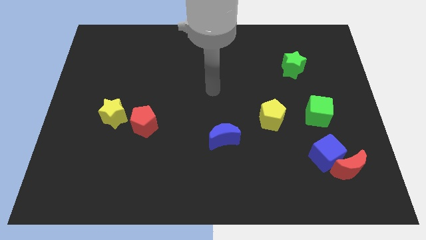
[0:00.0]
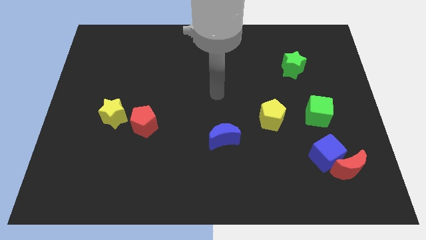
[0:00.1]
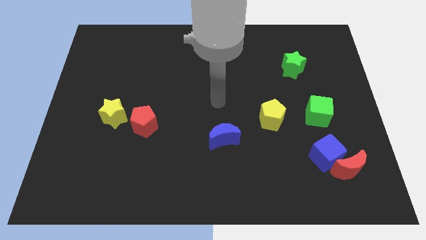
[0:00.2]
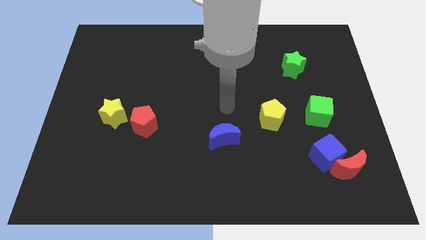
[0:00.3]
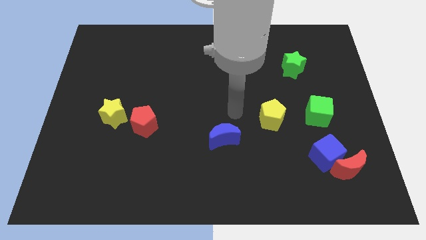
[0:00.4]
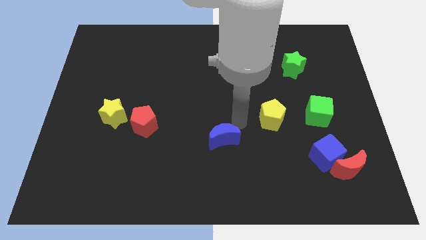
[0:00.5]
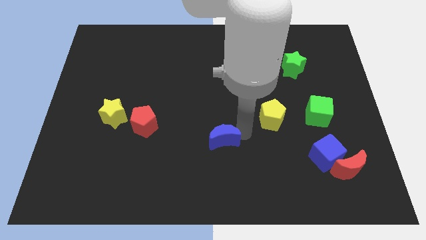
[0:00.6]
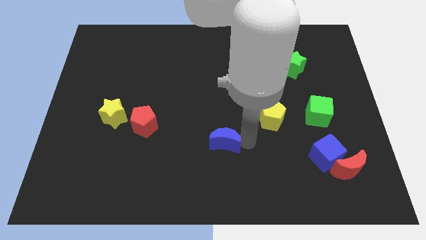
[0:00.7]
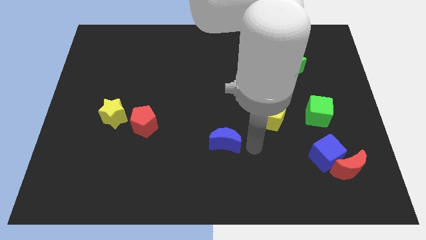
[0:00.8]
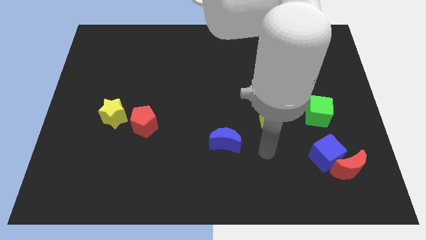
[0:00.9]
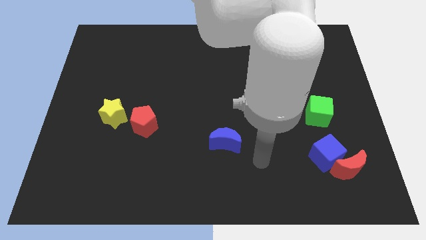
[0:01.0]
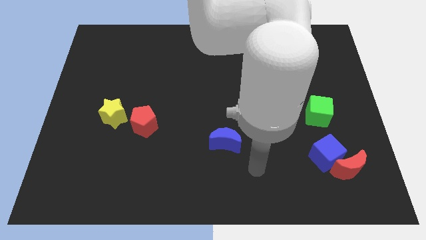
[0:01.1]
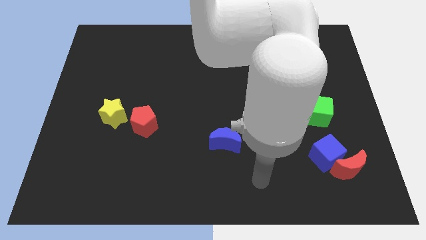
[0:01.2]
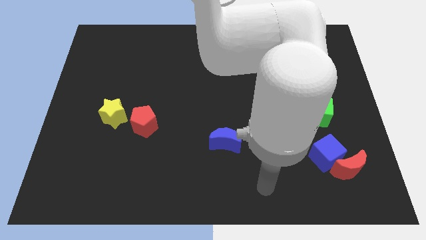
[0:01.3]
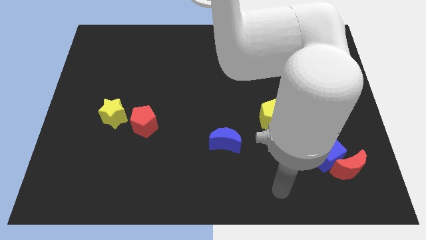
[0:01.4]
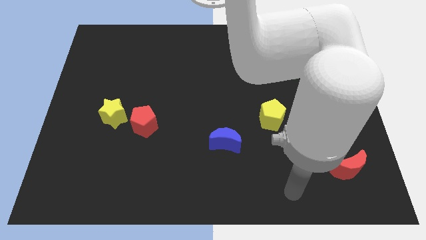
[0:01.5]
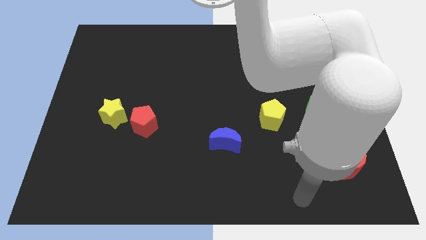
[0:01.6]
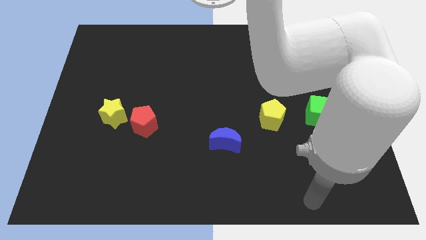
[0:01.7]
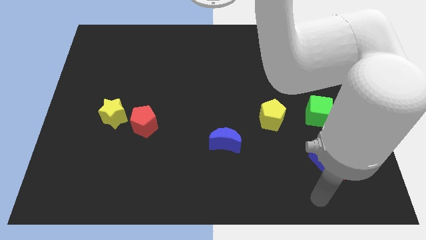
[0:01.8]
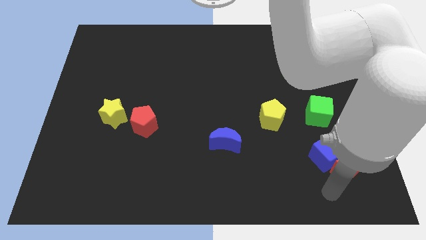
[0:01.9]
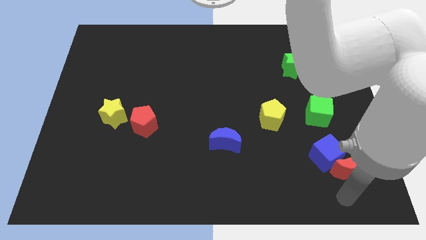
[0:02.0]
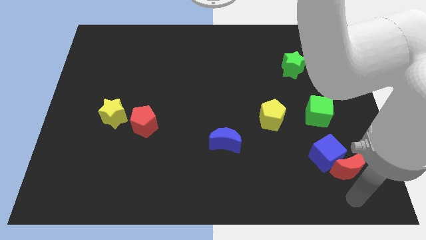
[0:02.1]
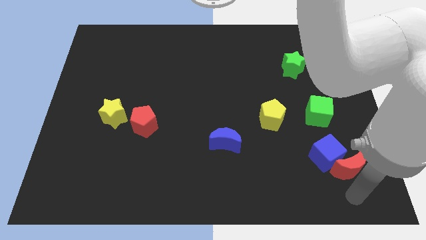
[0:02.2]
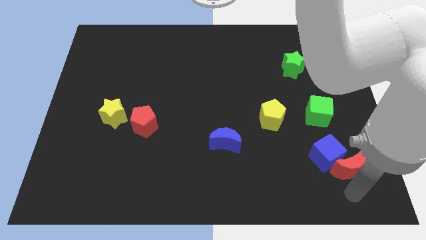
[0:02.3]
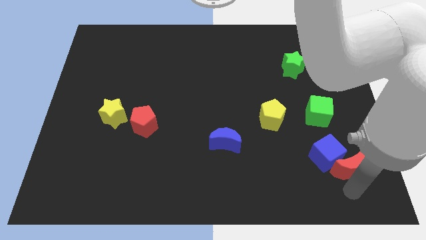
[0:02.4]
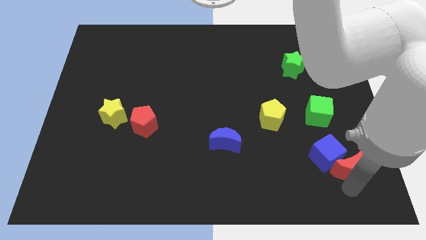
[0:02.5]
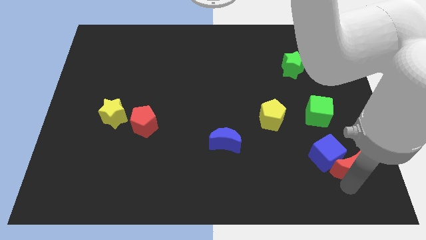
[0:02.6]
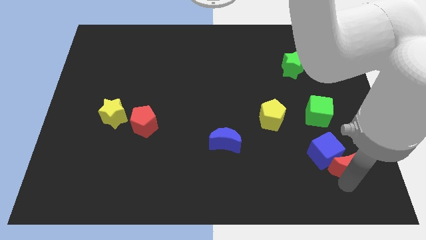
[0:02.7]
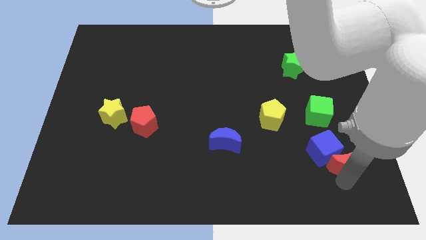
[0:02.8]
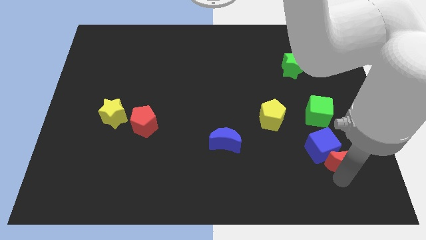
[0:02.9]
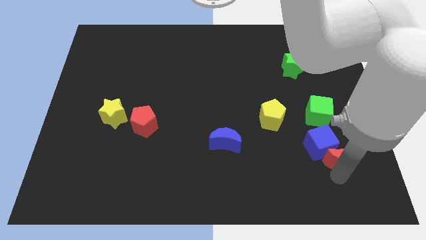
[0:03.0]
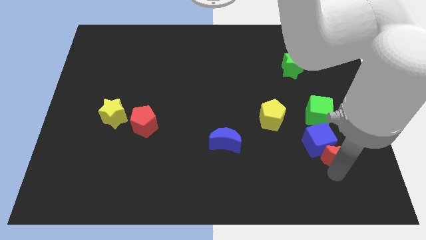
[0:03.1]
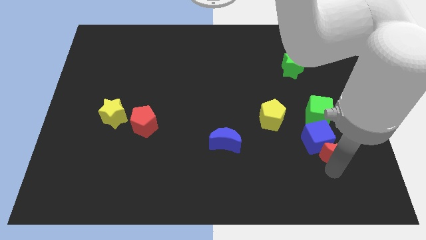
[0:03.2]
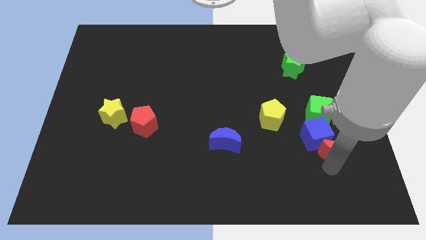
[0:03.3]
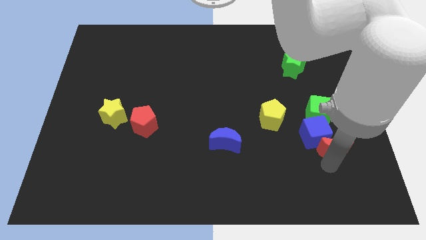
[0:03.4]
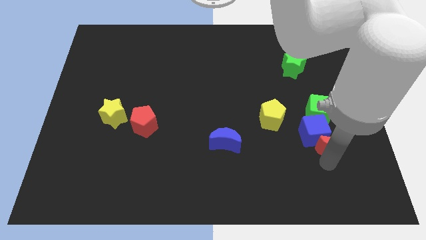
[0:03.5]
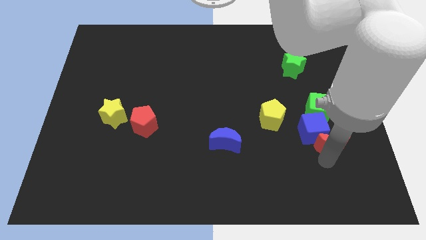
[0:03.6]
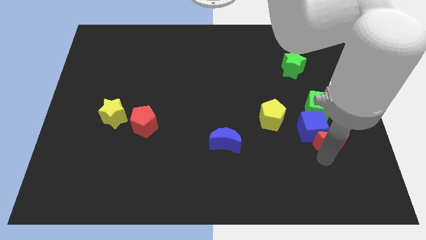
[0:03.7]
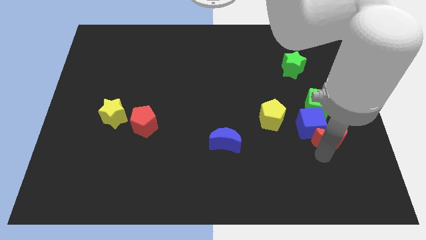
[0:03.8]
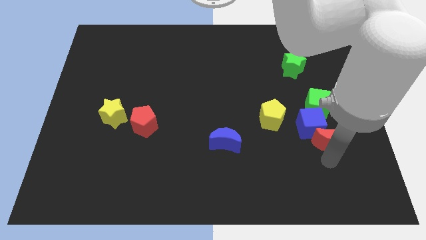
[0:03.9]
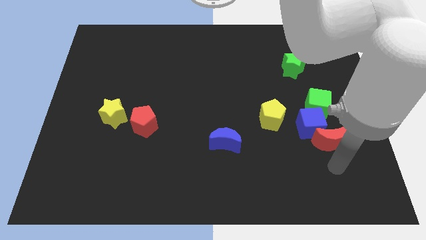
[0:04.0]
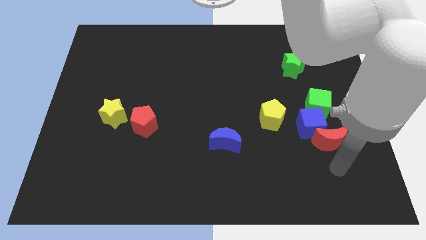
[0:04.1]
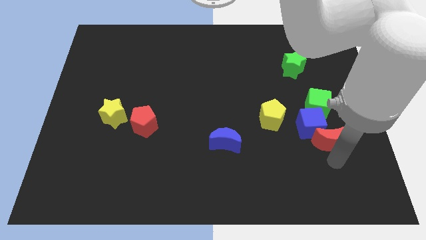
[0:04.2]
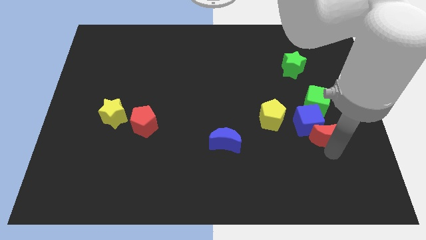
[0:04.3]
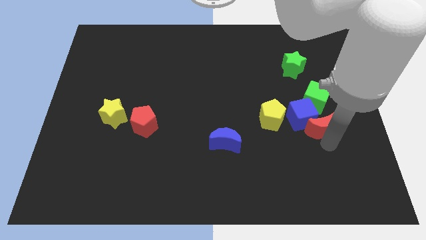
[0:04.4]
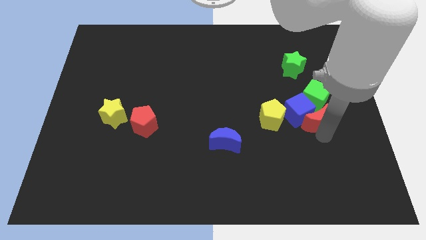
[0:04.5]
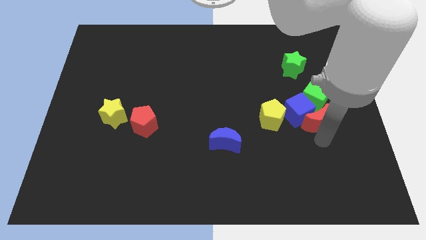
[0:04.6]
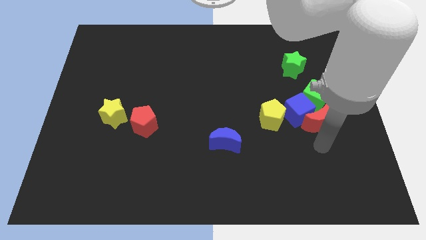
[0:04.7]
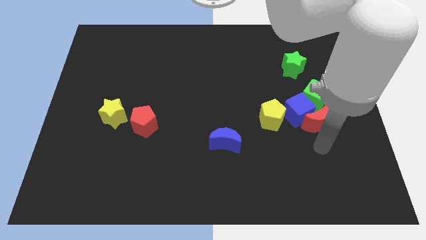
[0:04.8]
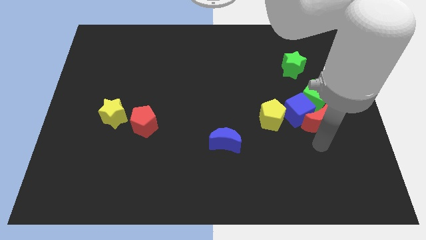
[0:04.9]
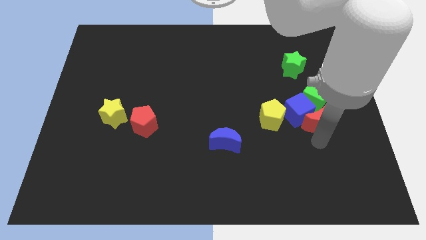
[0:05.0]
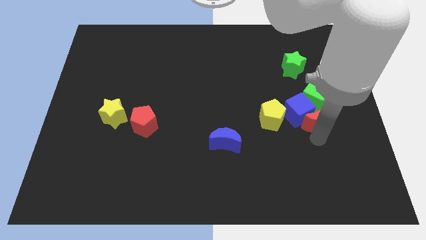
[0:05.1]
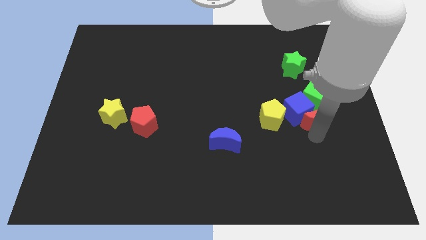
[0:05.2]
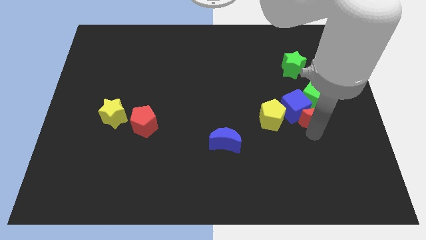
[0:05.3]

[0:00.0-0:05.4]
push the red moon close to the green cube

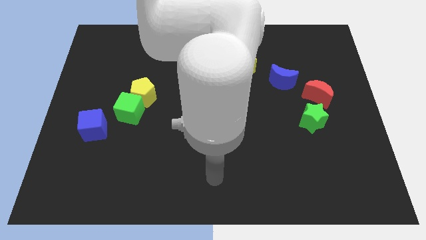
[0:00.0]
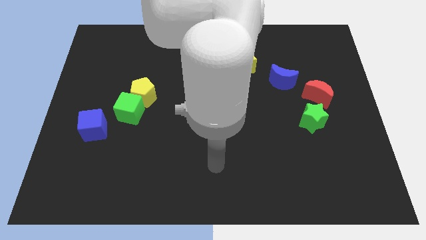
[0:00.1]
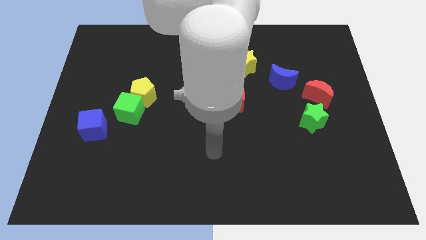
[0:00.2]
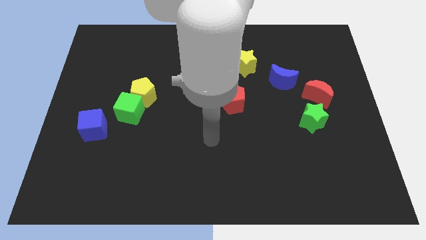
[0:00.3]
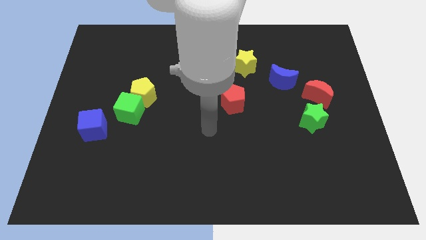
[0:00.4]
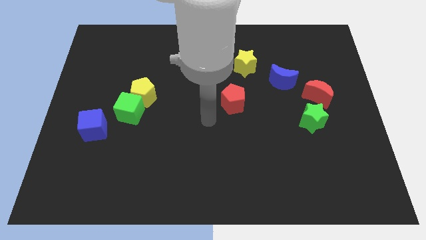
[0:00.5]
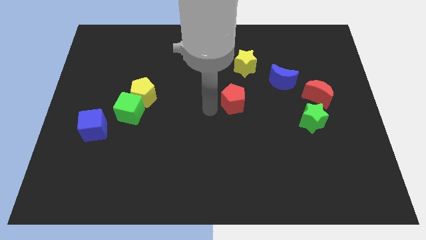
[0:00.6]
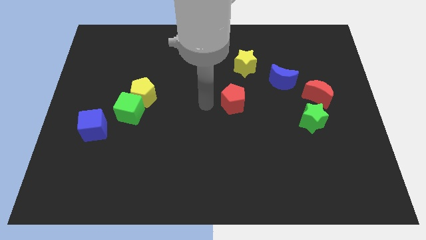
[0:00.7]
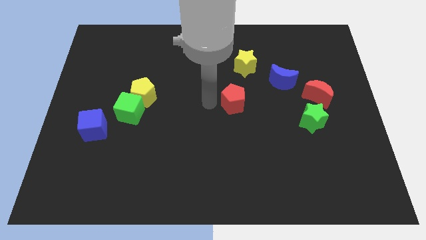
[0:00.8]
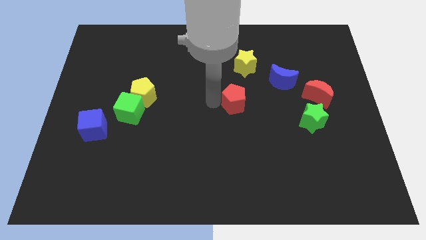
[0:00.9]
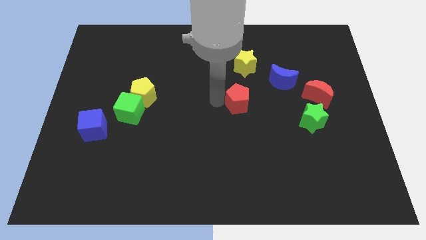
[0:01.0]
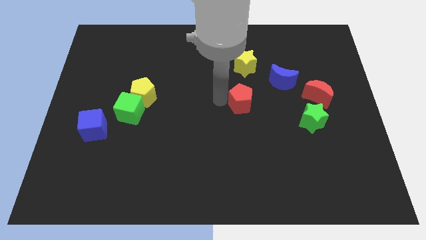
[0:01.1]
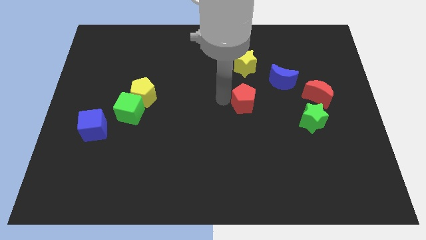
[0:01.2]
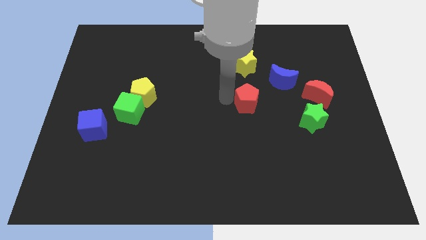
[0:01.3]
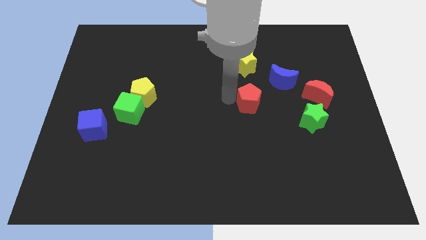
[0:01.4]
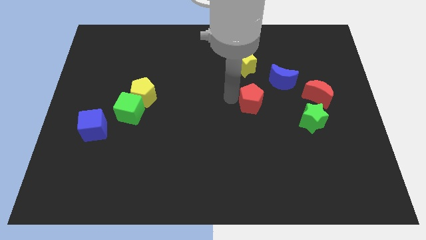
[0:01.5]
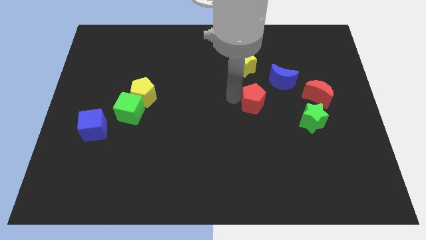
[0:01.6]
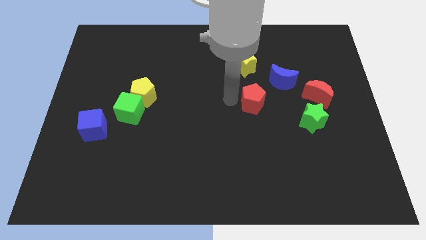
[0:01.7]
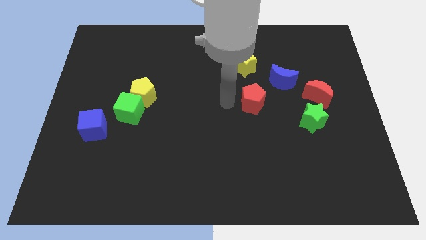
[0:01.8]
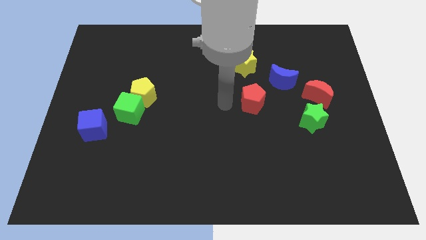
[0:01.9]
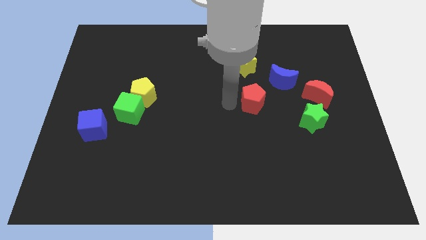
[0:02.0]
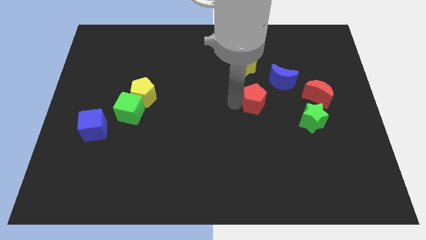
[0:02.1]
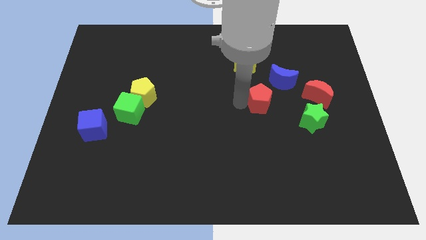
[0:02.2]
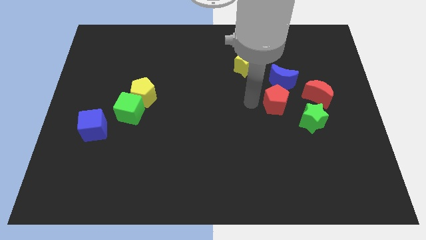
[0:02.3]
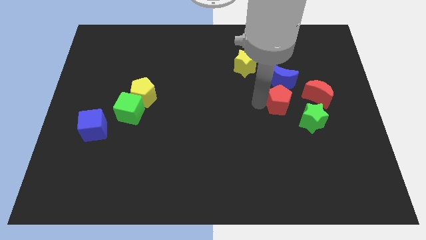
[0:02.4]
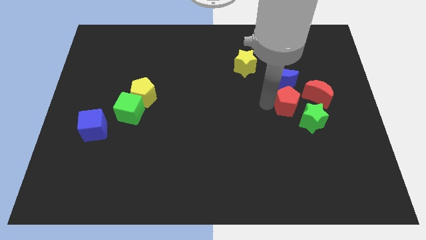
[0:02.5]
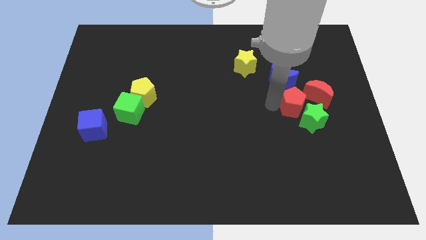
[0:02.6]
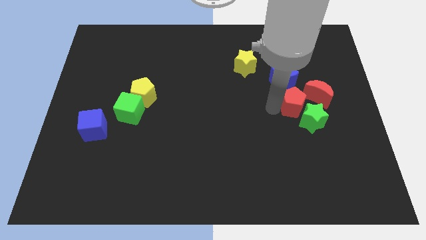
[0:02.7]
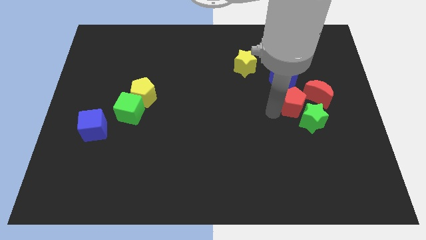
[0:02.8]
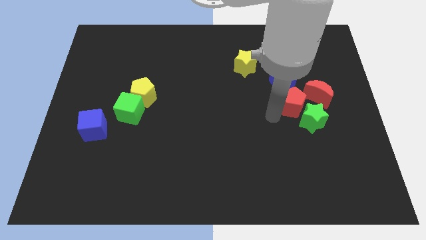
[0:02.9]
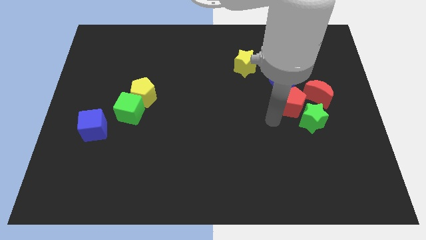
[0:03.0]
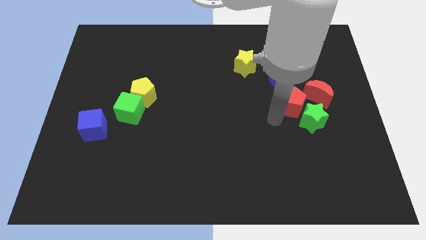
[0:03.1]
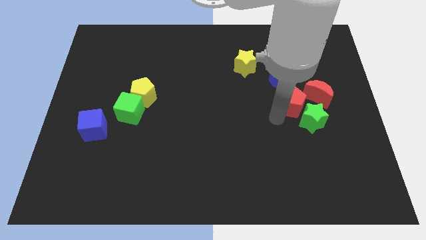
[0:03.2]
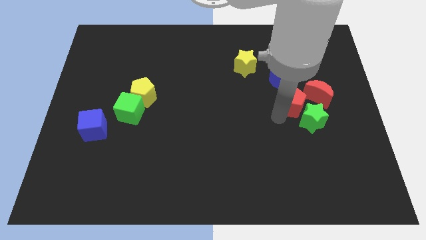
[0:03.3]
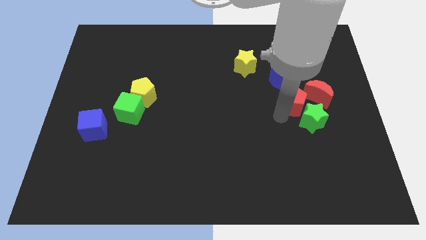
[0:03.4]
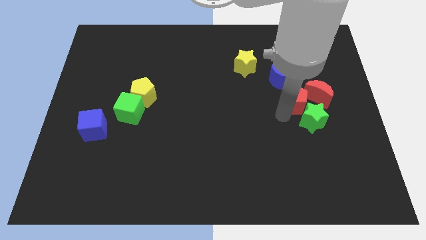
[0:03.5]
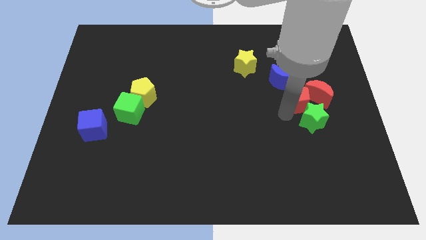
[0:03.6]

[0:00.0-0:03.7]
move the red pentagon next to the red moon
